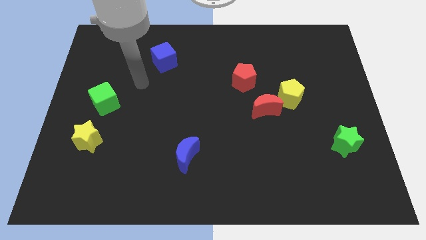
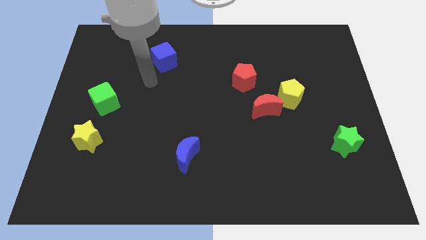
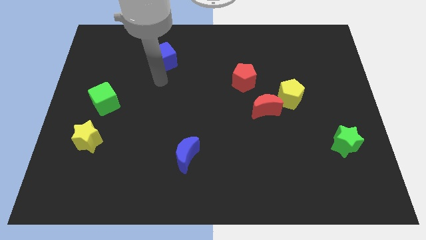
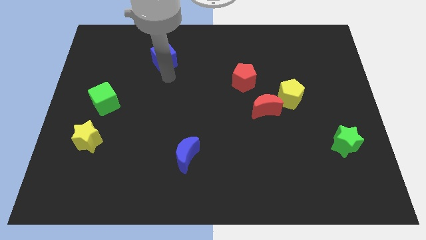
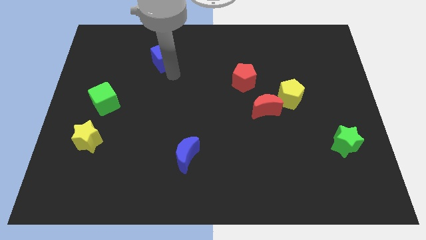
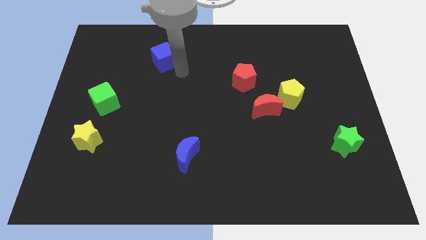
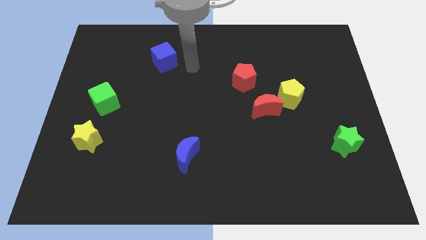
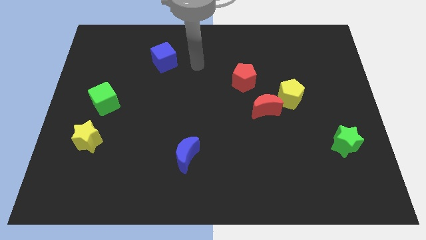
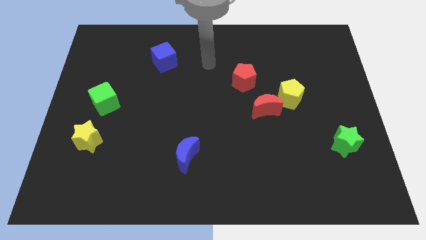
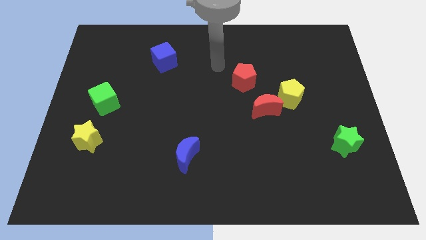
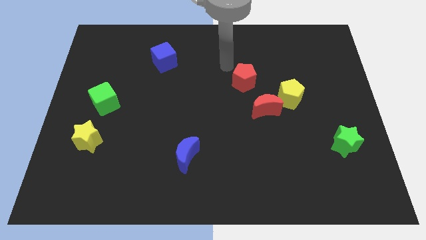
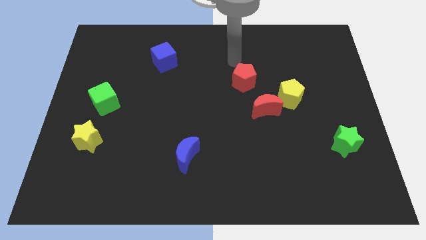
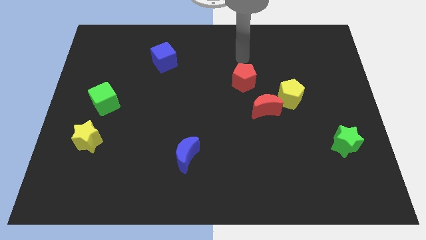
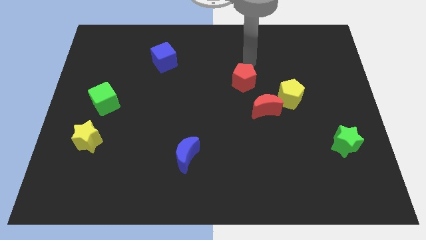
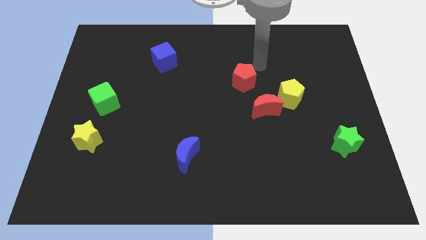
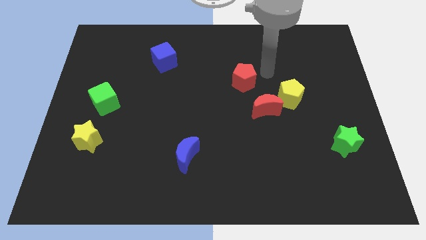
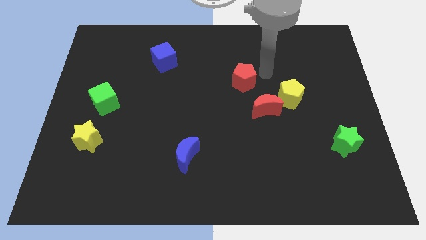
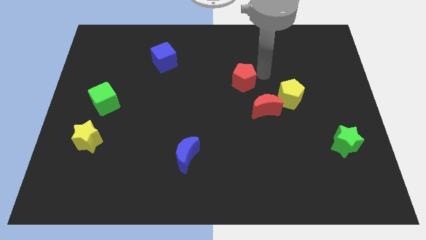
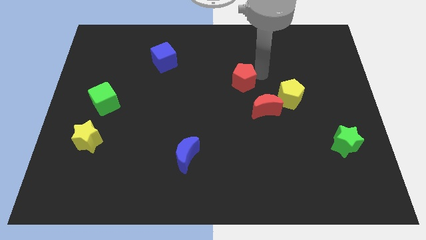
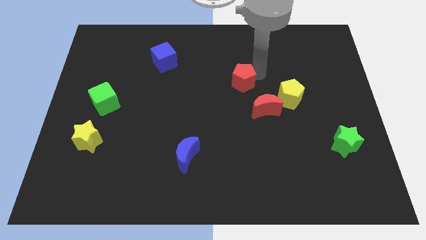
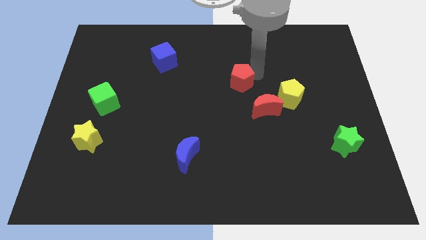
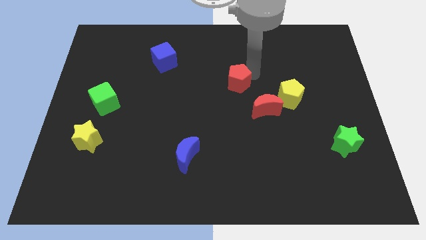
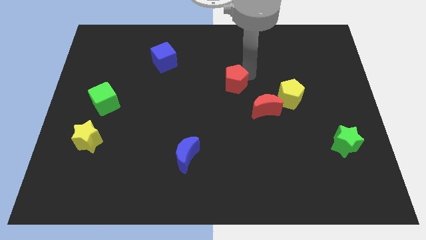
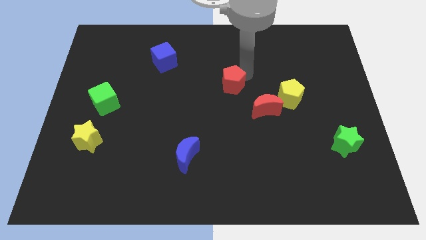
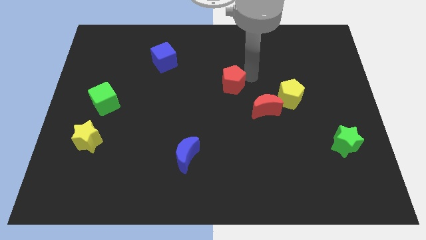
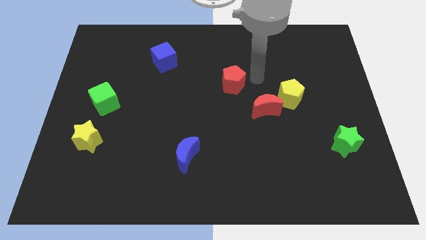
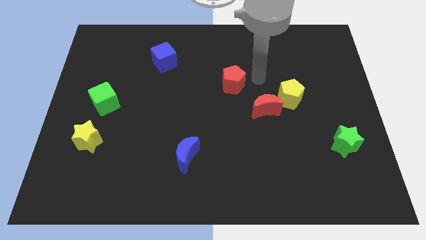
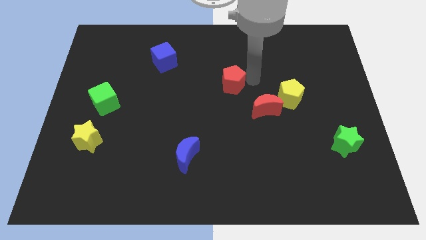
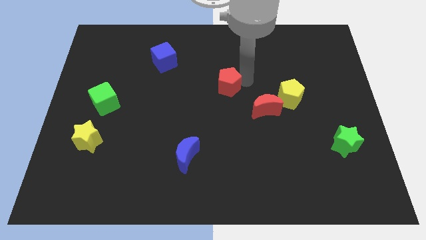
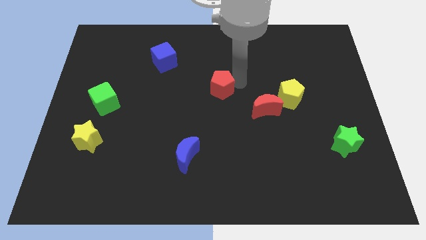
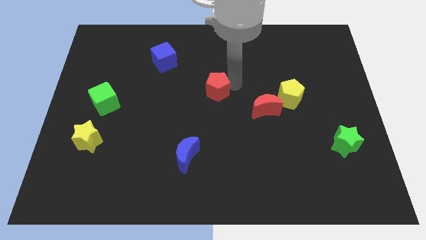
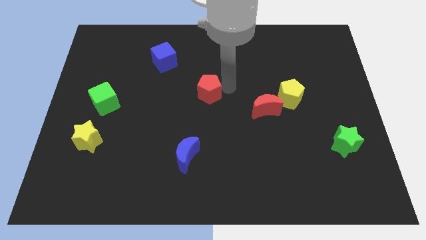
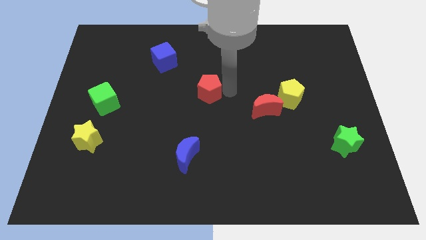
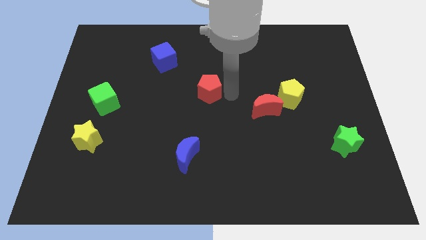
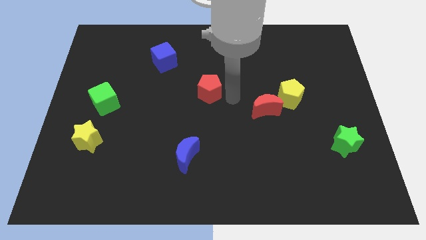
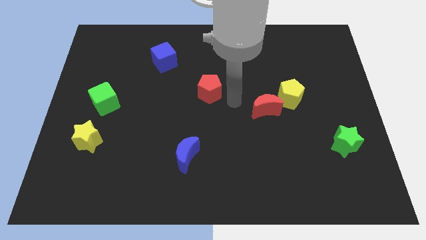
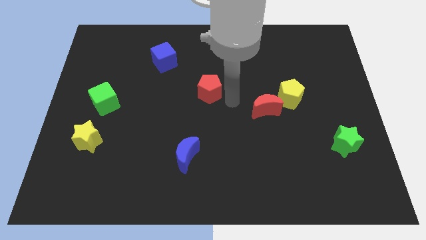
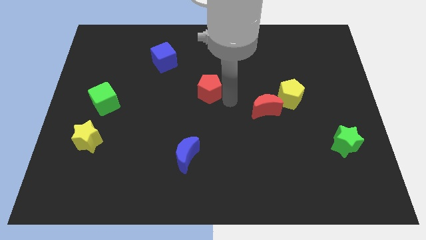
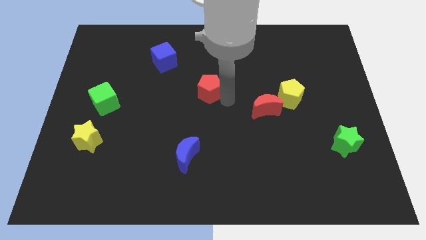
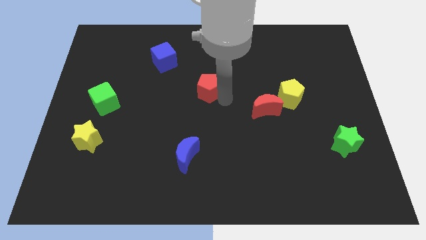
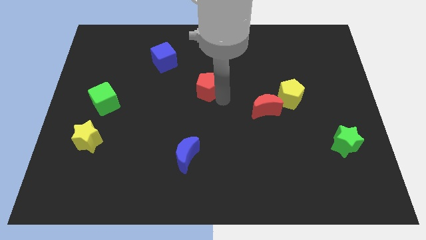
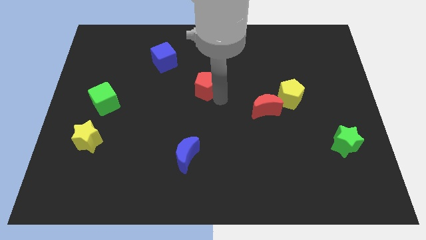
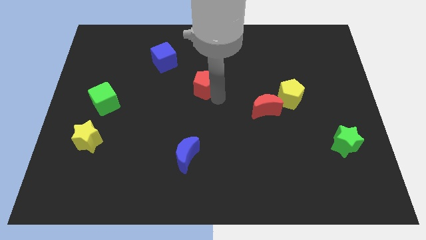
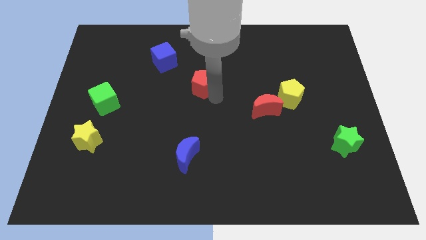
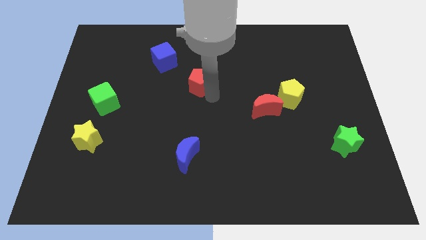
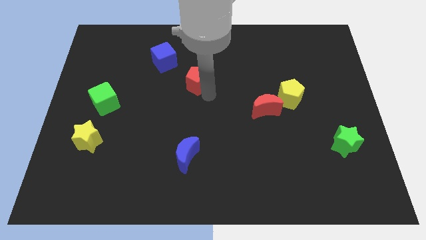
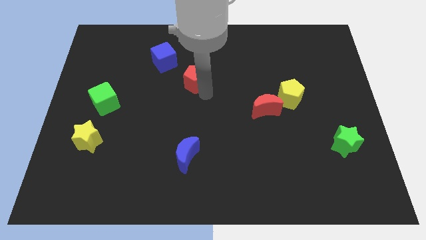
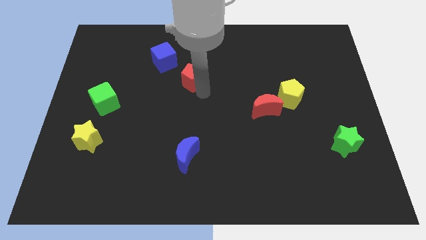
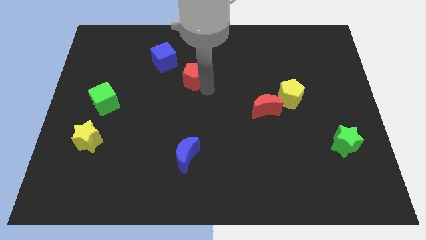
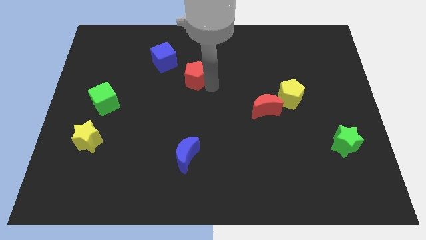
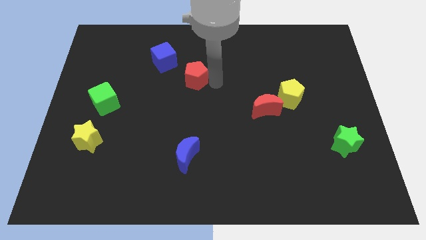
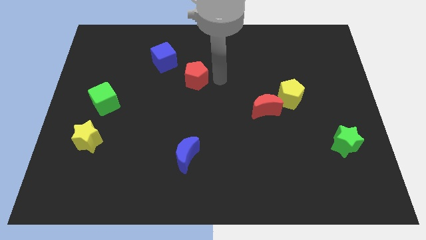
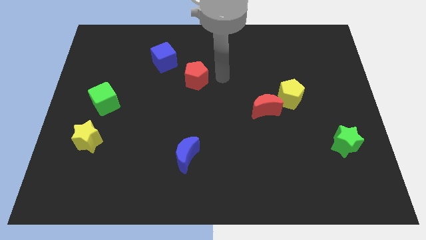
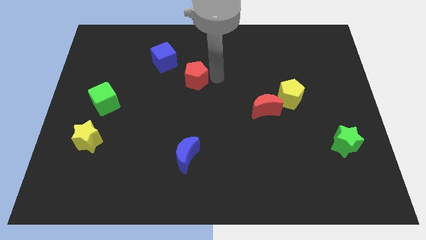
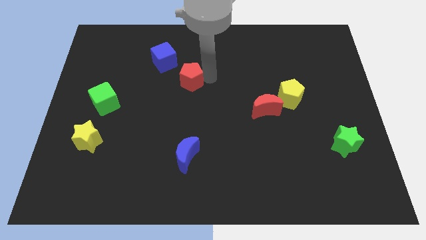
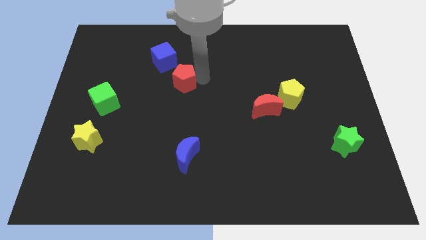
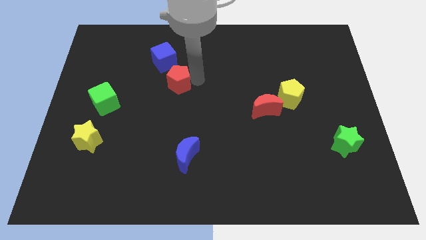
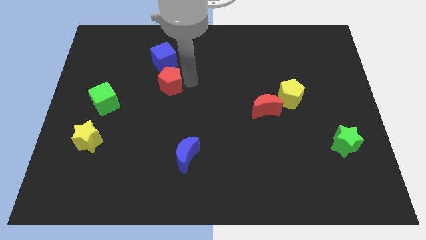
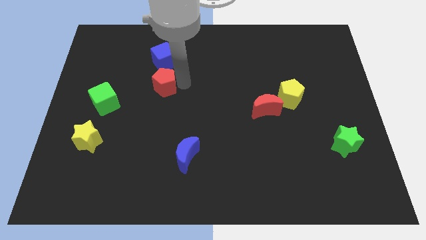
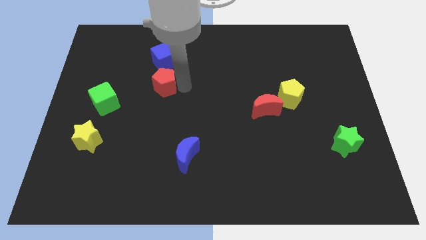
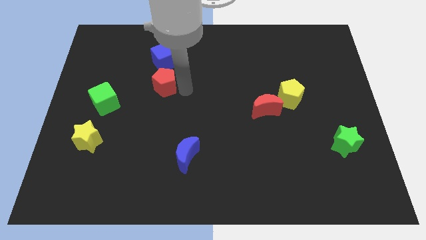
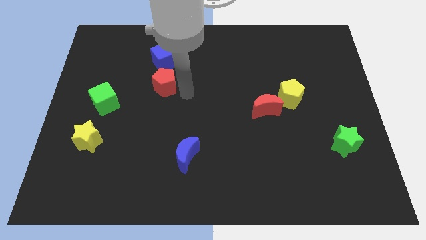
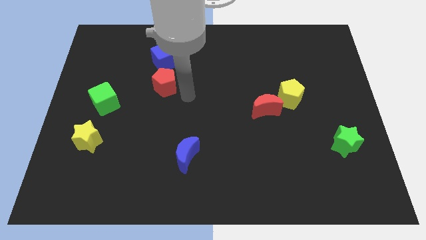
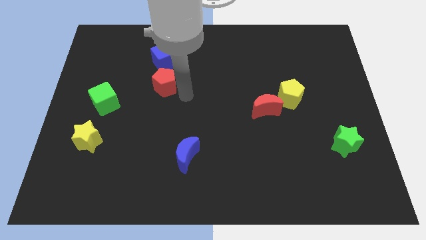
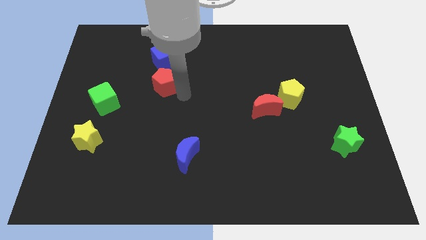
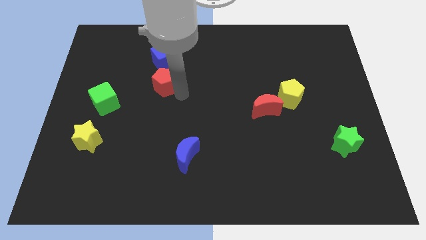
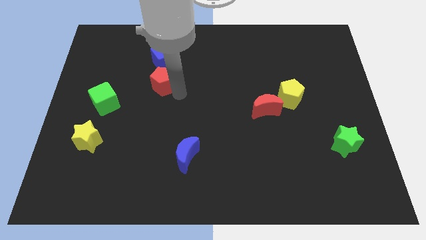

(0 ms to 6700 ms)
move the red pentagon to the left

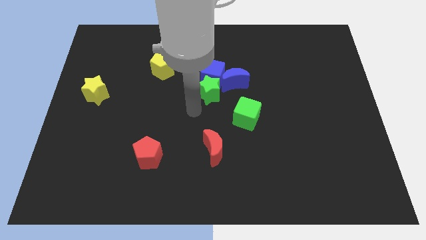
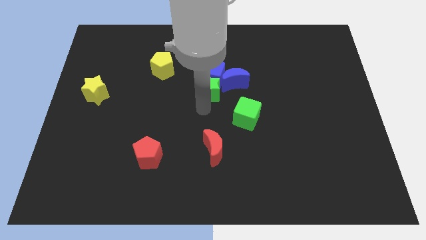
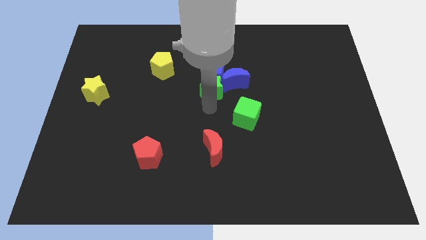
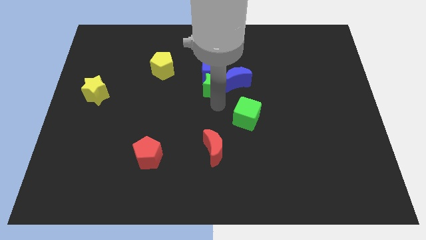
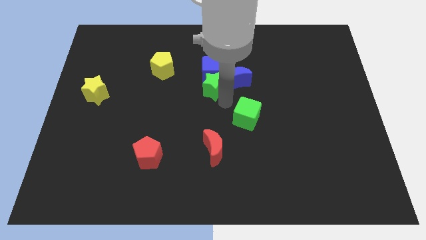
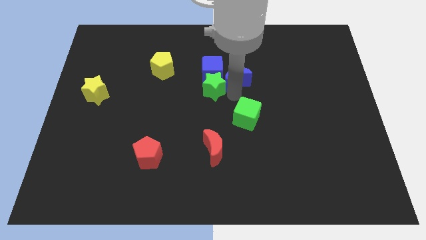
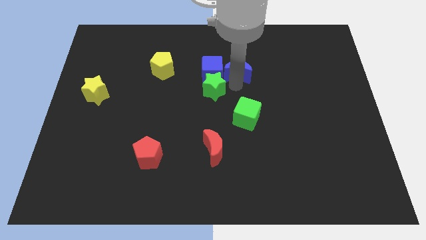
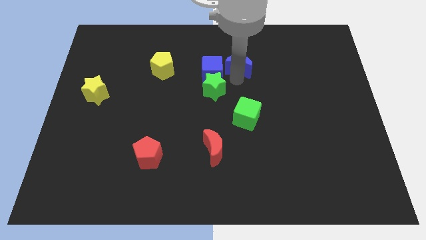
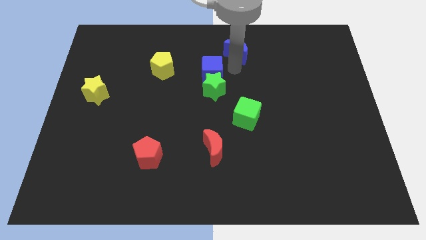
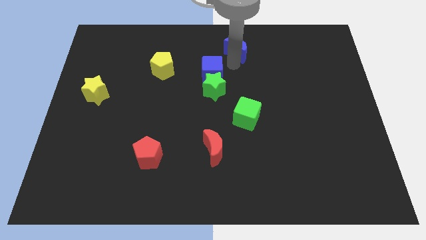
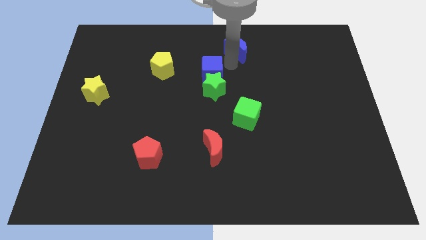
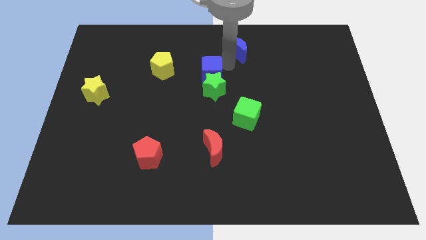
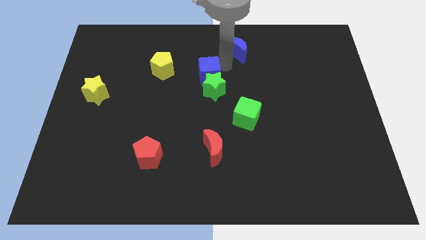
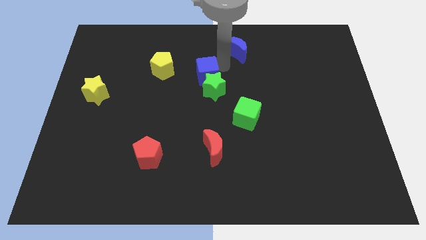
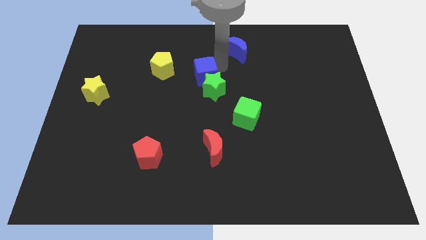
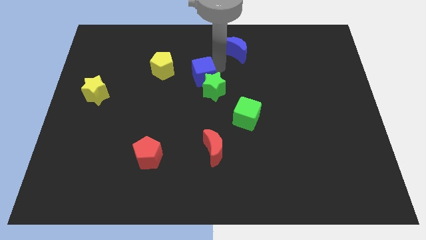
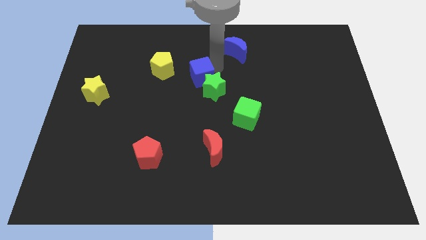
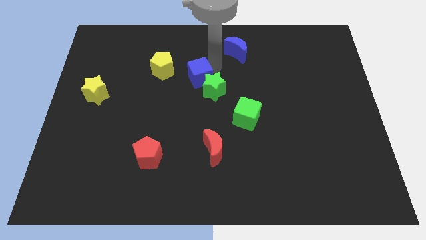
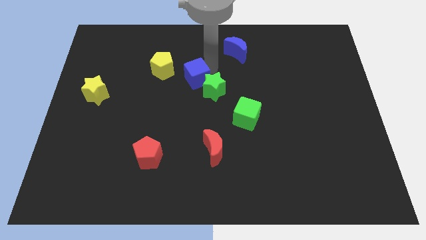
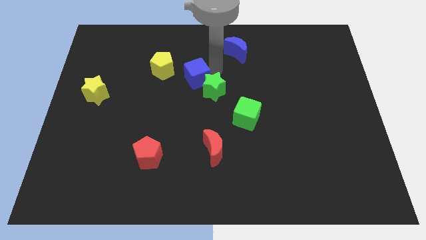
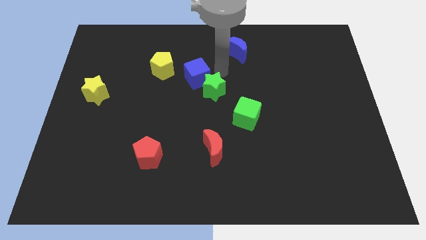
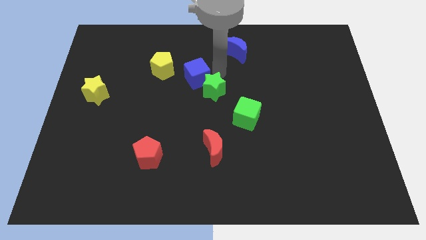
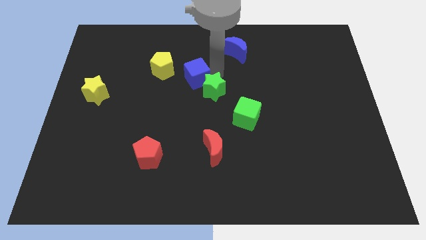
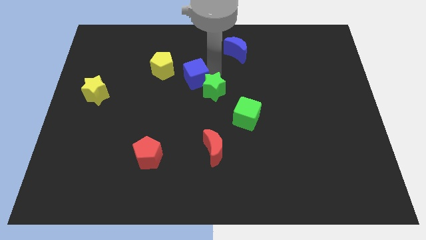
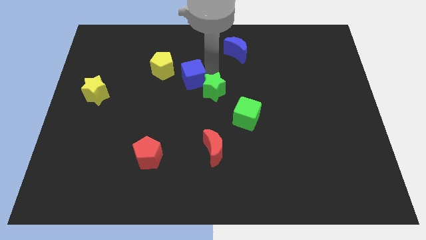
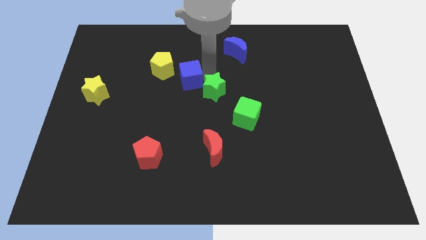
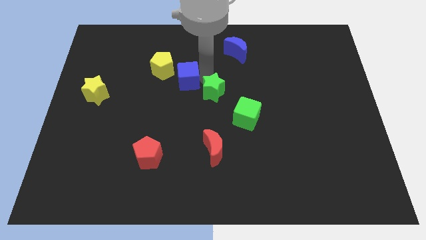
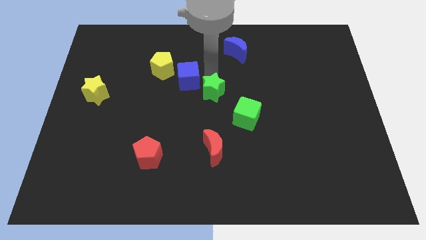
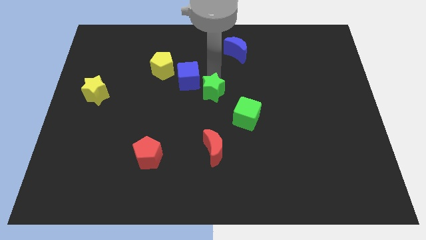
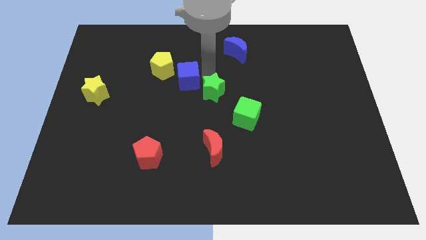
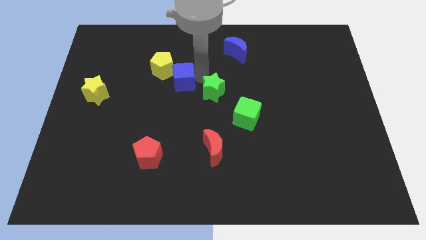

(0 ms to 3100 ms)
slightly push the blue cube left
